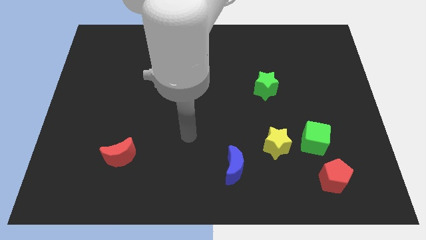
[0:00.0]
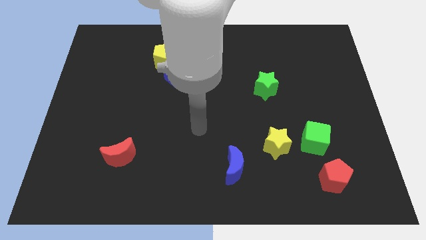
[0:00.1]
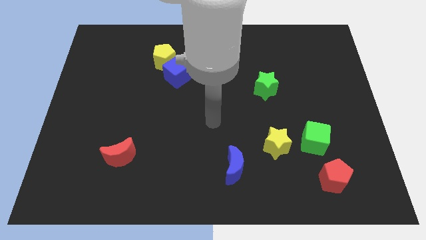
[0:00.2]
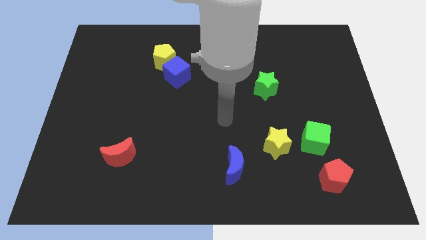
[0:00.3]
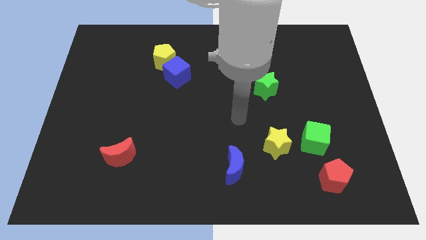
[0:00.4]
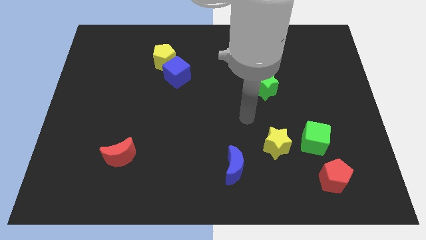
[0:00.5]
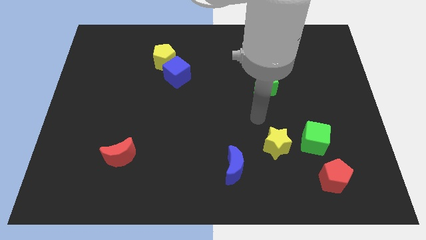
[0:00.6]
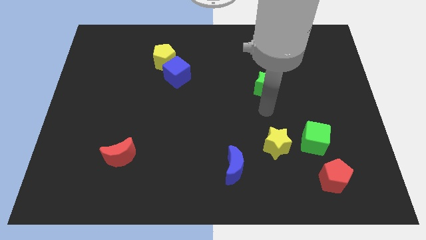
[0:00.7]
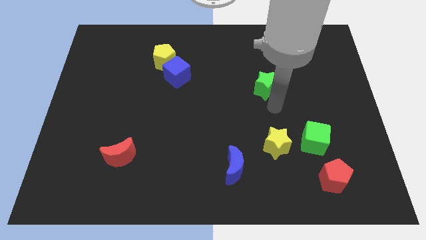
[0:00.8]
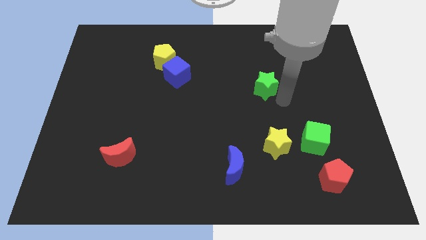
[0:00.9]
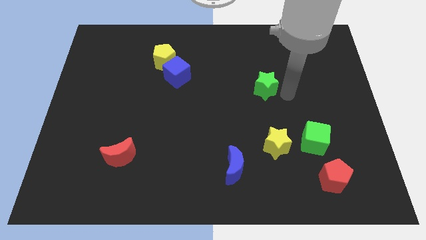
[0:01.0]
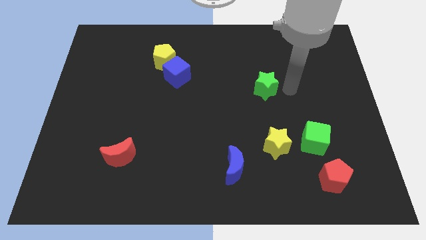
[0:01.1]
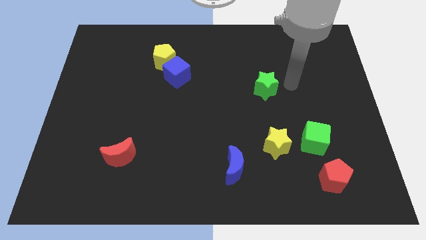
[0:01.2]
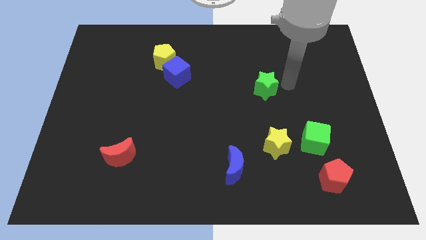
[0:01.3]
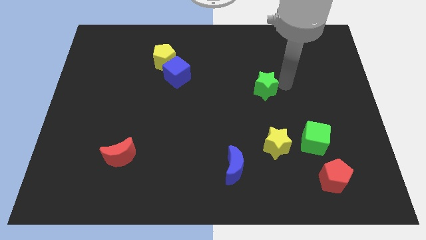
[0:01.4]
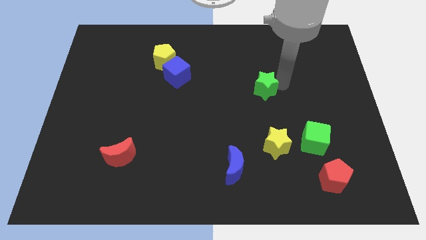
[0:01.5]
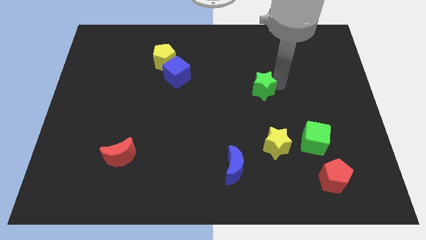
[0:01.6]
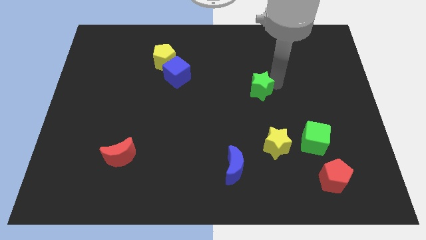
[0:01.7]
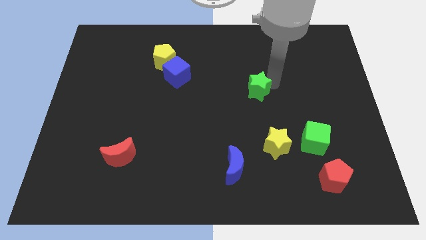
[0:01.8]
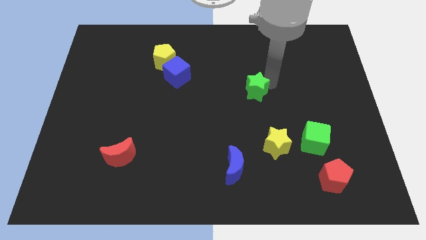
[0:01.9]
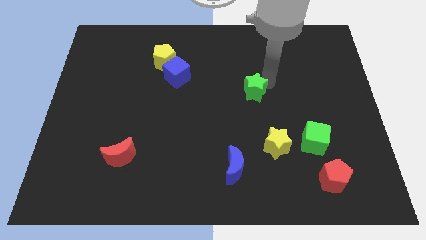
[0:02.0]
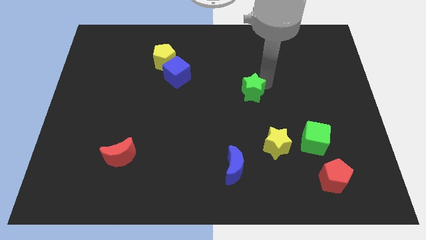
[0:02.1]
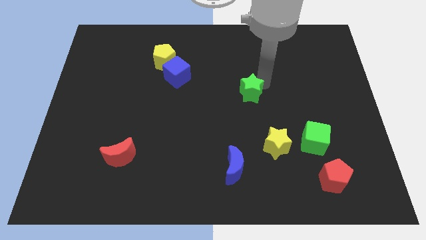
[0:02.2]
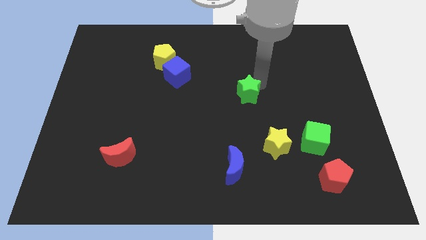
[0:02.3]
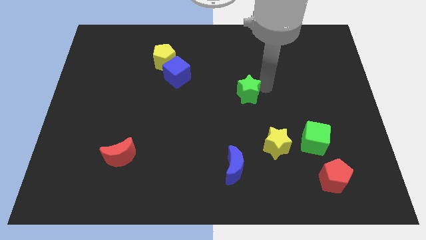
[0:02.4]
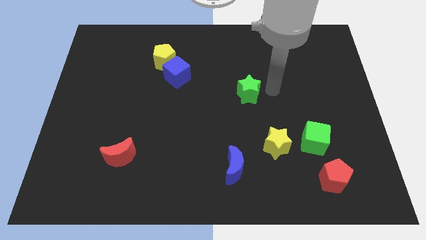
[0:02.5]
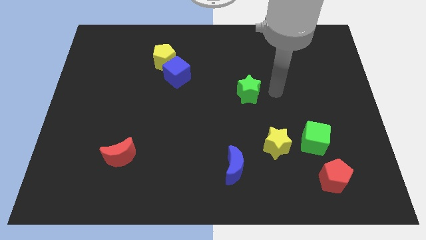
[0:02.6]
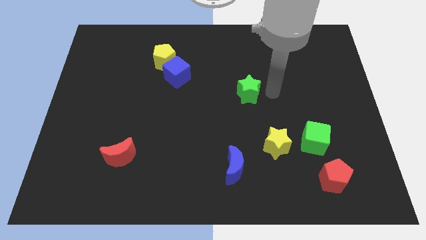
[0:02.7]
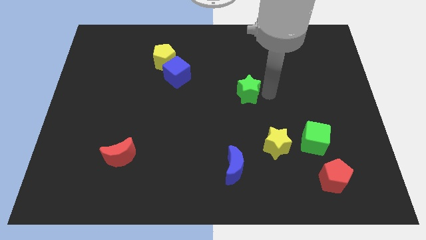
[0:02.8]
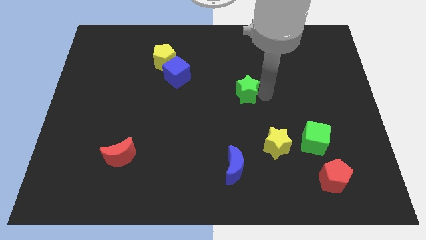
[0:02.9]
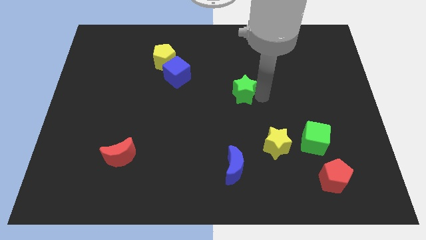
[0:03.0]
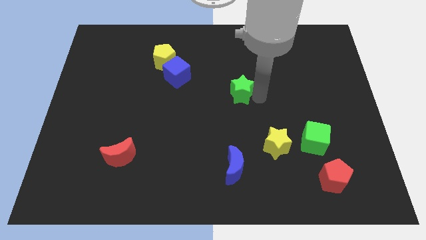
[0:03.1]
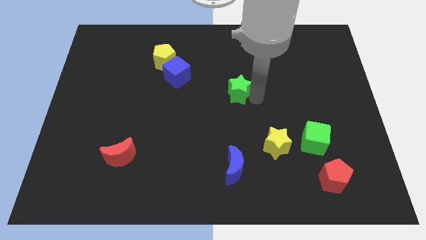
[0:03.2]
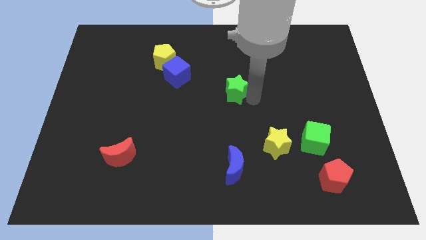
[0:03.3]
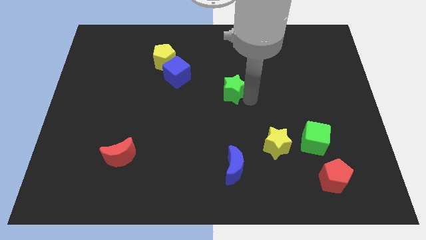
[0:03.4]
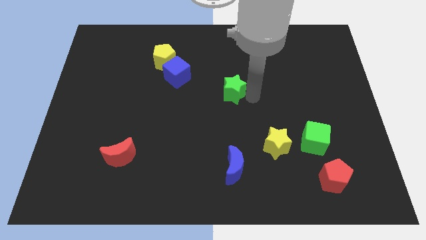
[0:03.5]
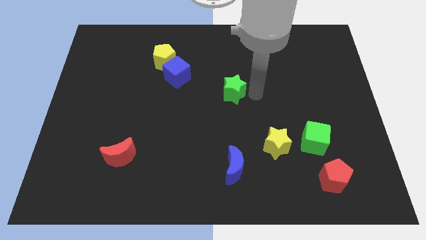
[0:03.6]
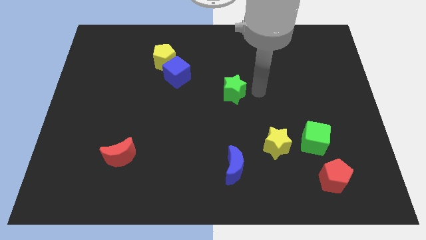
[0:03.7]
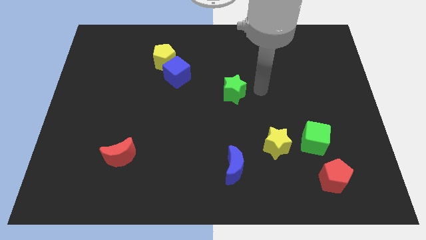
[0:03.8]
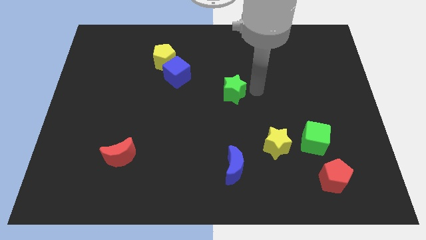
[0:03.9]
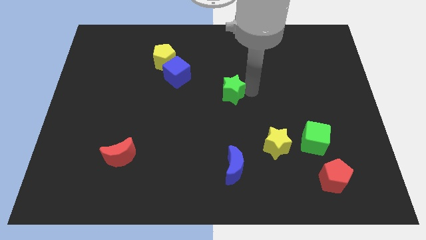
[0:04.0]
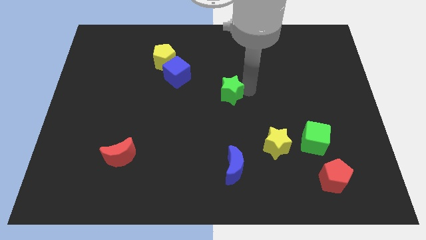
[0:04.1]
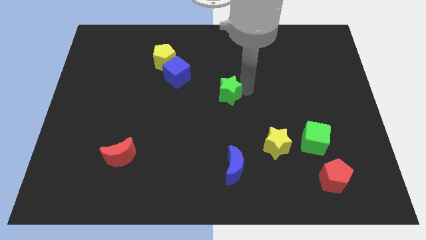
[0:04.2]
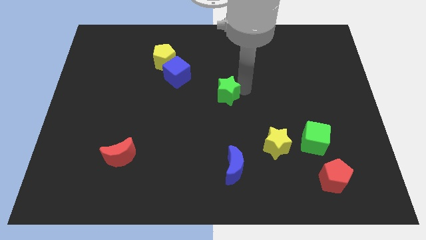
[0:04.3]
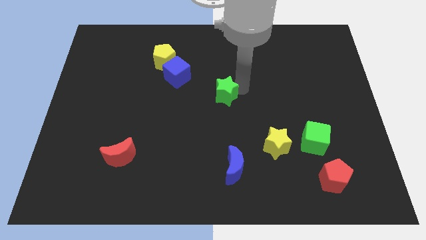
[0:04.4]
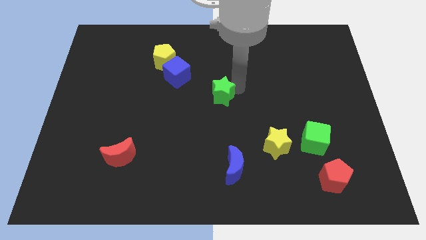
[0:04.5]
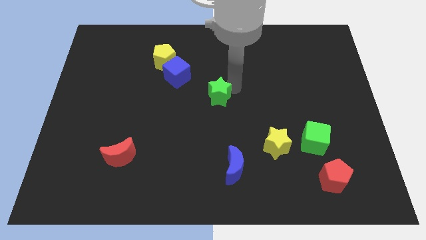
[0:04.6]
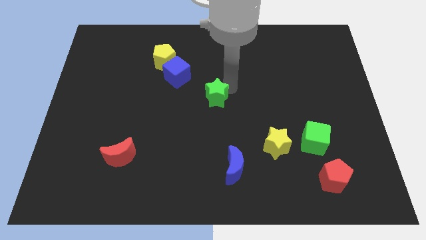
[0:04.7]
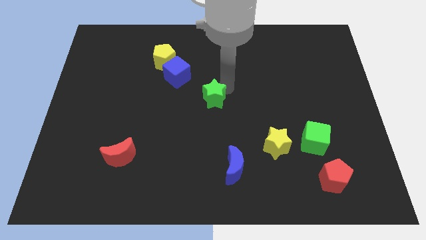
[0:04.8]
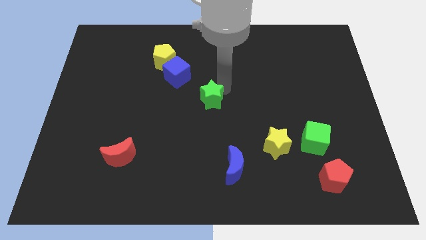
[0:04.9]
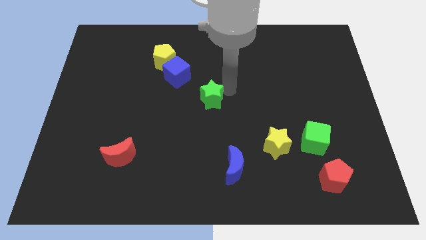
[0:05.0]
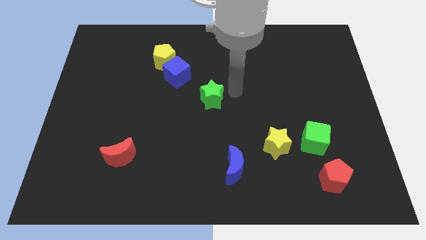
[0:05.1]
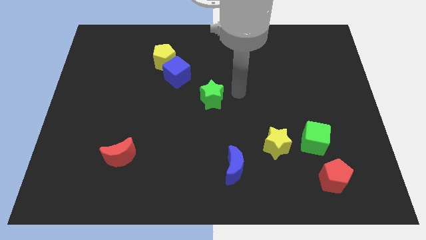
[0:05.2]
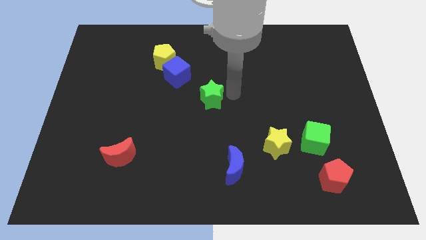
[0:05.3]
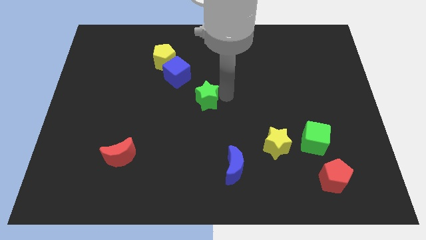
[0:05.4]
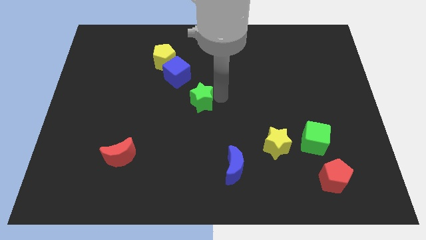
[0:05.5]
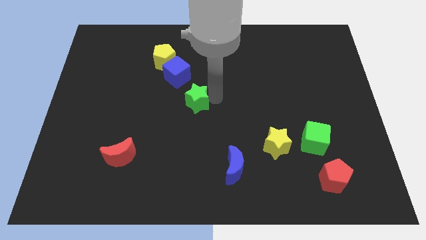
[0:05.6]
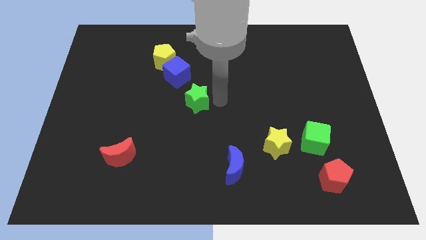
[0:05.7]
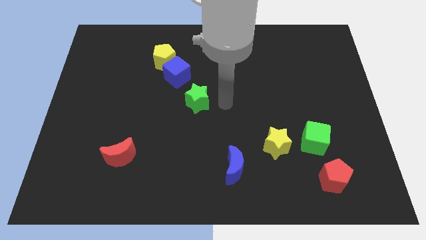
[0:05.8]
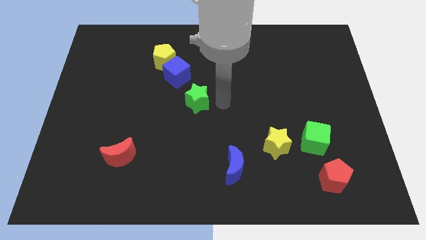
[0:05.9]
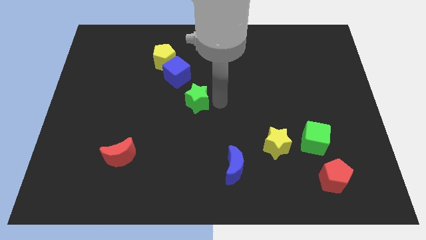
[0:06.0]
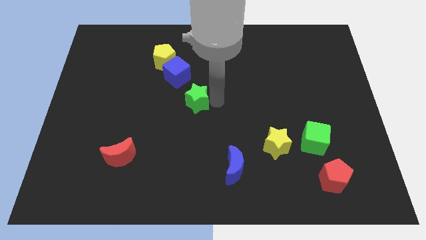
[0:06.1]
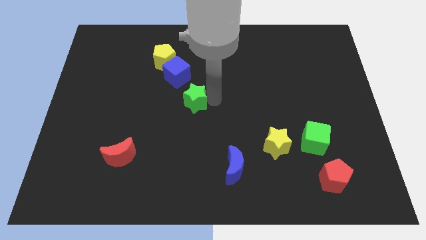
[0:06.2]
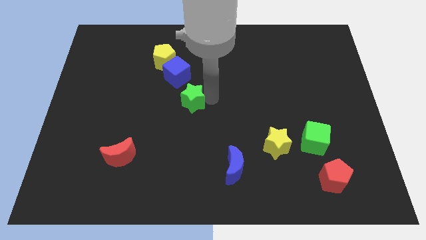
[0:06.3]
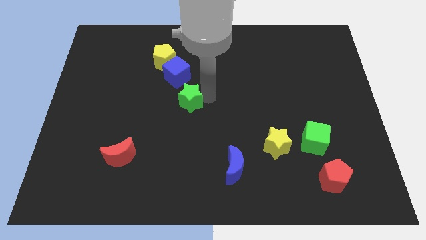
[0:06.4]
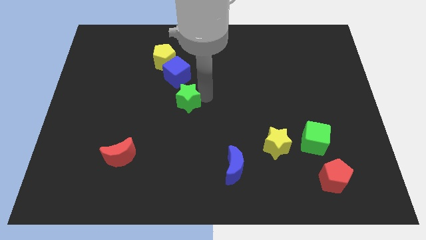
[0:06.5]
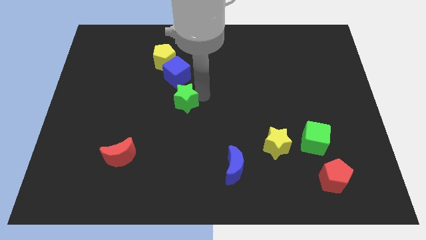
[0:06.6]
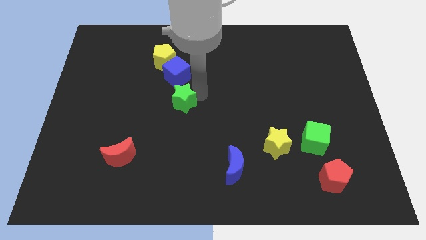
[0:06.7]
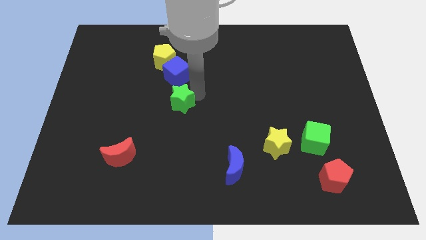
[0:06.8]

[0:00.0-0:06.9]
move the green star left

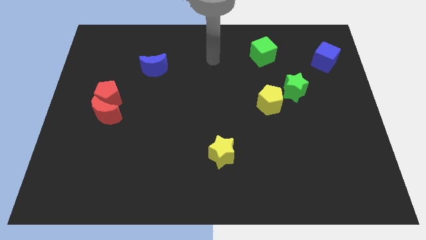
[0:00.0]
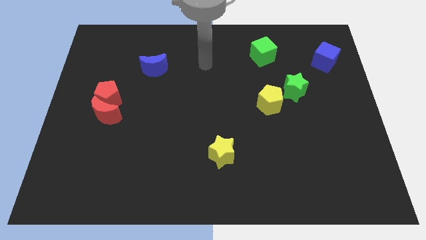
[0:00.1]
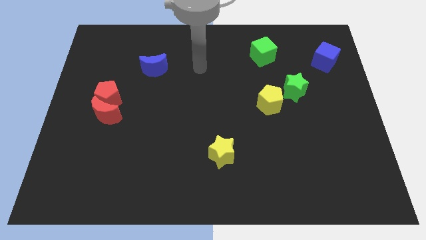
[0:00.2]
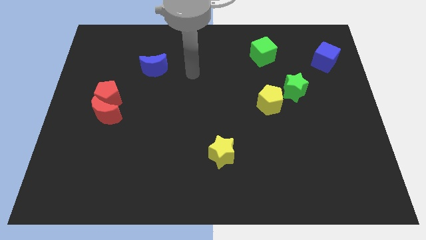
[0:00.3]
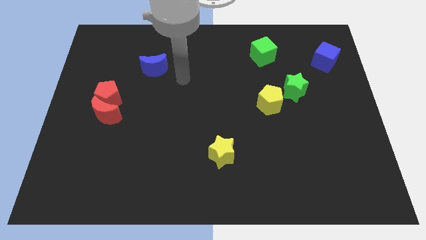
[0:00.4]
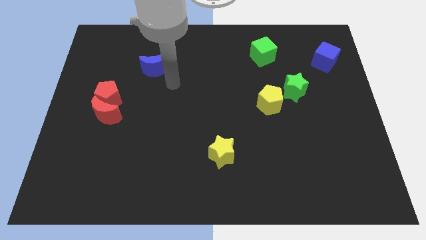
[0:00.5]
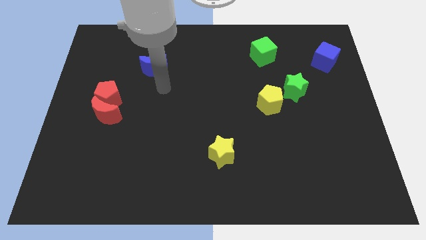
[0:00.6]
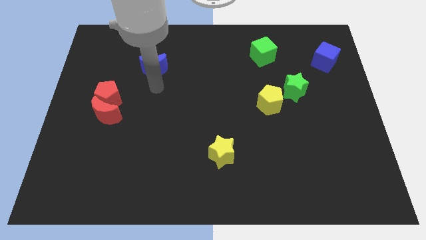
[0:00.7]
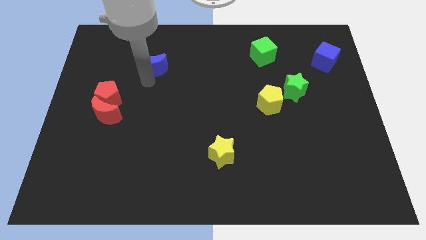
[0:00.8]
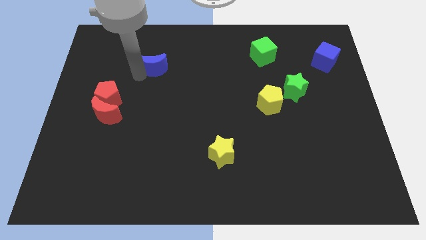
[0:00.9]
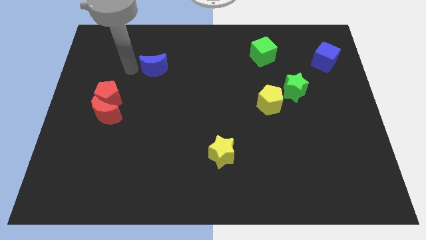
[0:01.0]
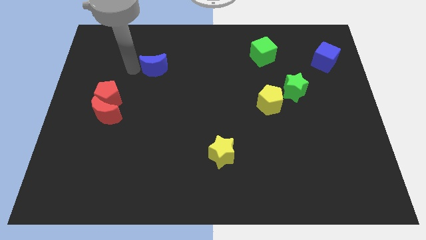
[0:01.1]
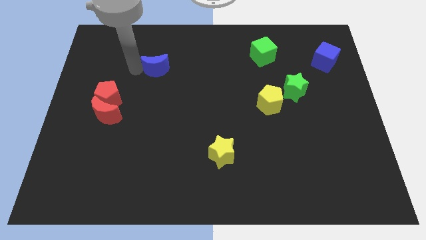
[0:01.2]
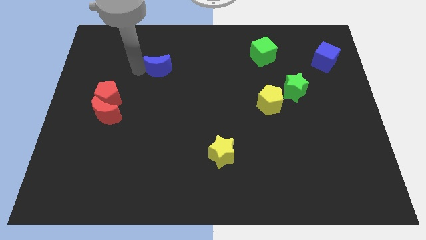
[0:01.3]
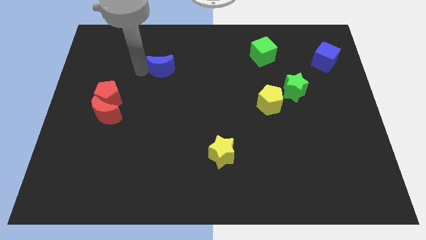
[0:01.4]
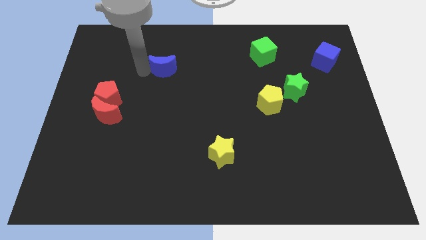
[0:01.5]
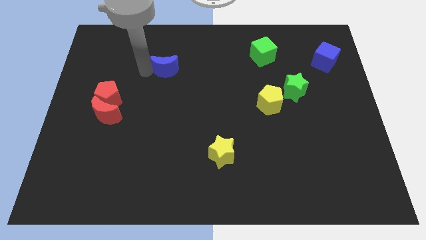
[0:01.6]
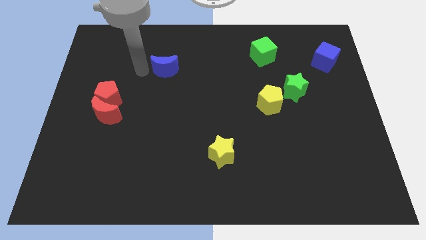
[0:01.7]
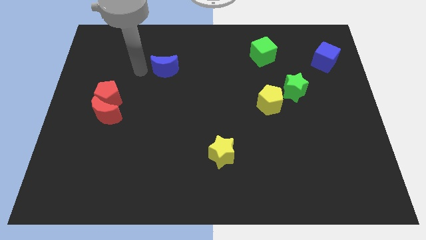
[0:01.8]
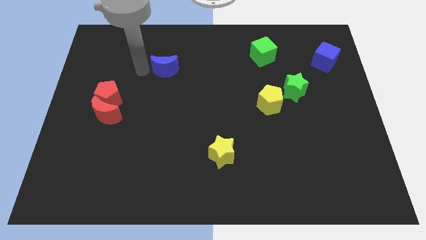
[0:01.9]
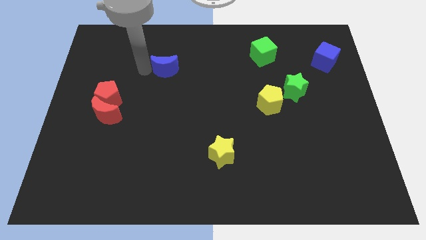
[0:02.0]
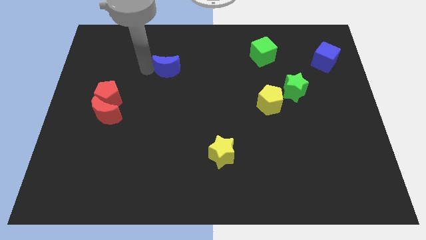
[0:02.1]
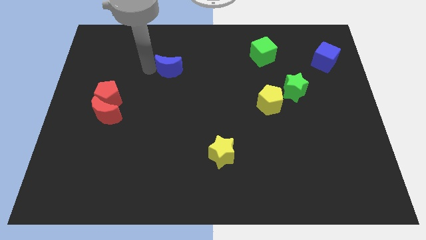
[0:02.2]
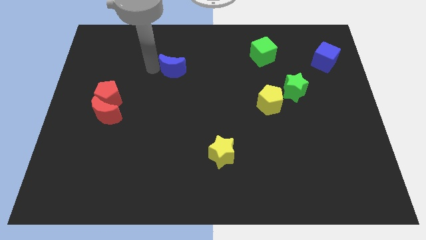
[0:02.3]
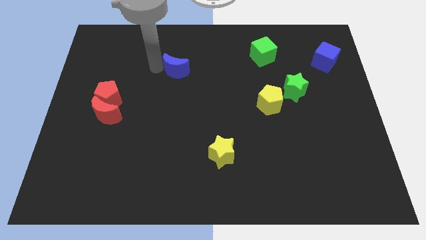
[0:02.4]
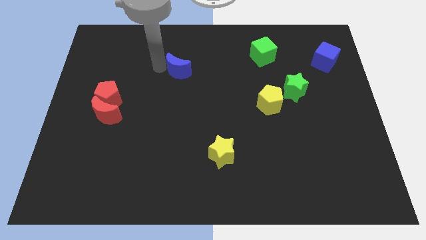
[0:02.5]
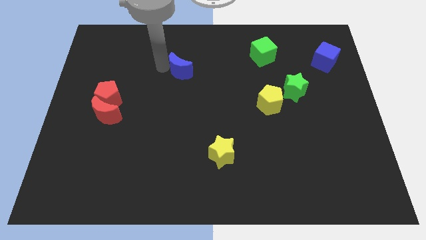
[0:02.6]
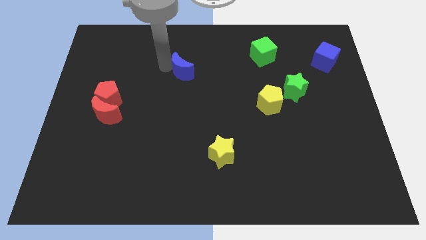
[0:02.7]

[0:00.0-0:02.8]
push the blue moon to the right slightly
